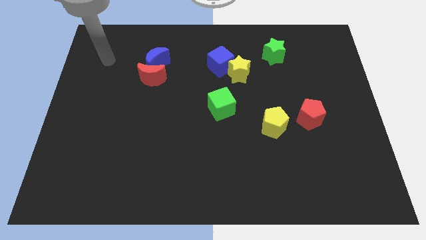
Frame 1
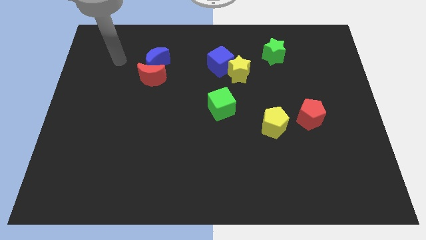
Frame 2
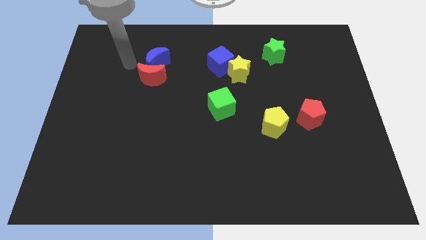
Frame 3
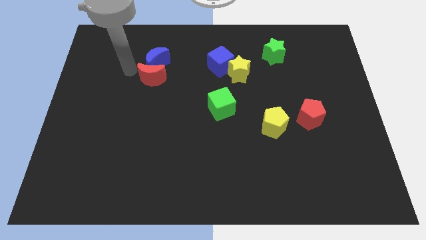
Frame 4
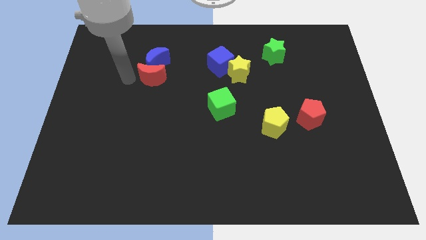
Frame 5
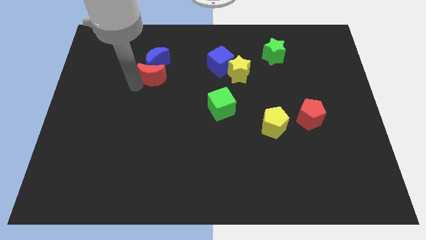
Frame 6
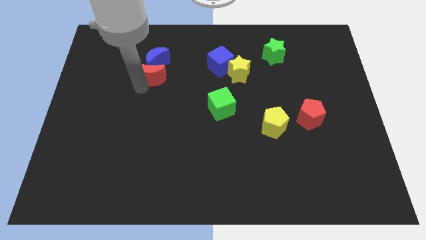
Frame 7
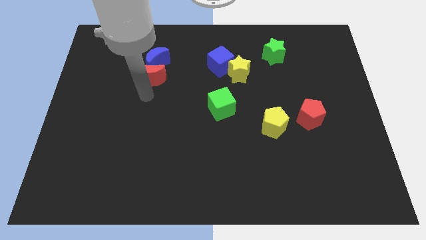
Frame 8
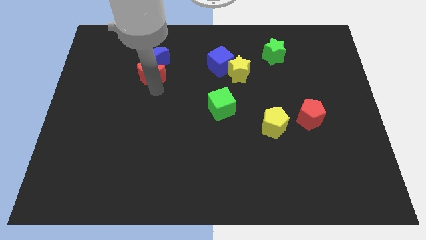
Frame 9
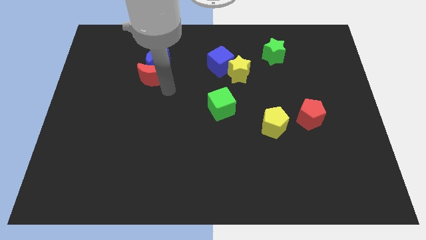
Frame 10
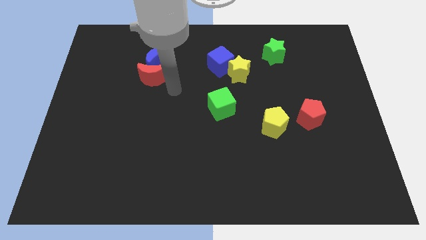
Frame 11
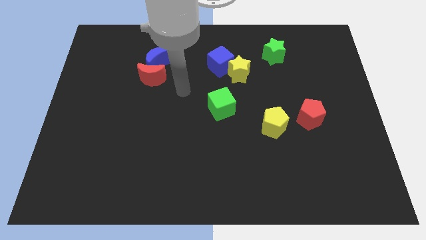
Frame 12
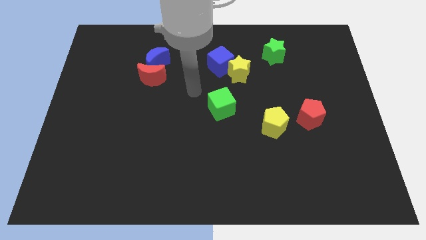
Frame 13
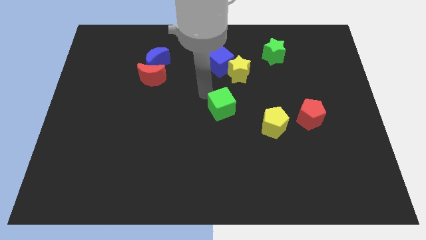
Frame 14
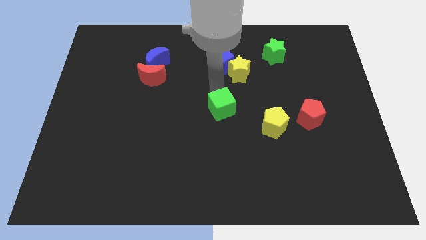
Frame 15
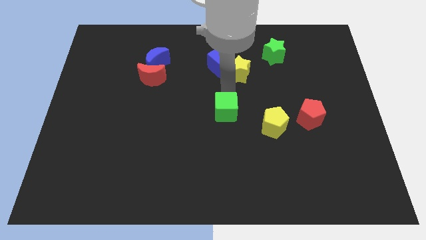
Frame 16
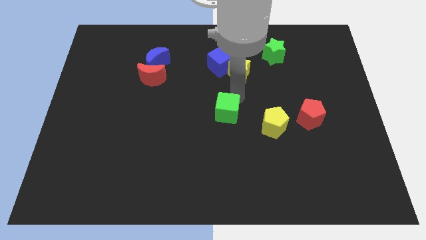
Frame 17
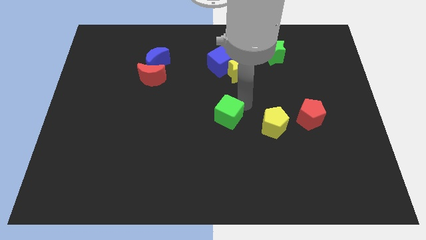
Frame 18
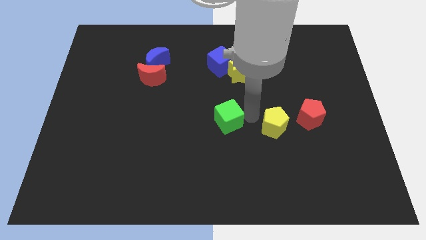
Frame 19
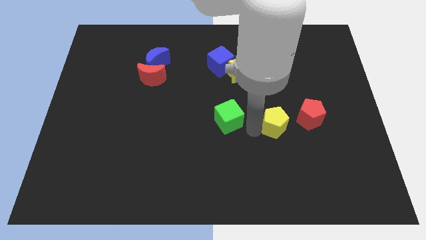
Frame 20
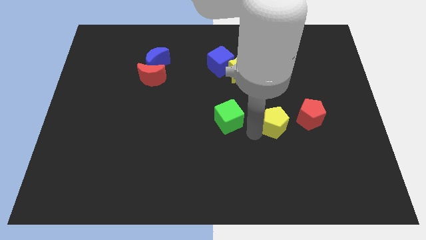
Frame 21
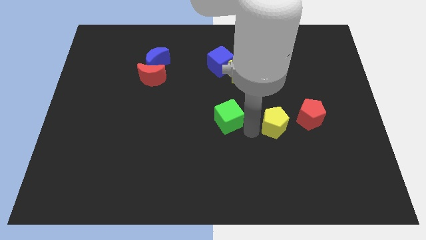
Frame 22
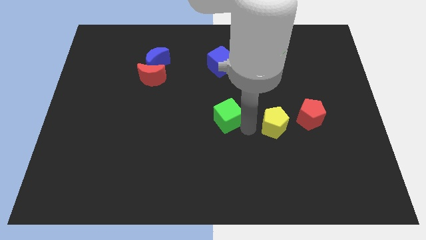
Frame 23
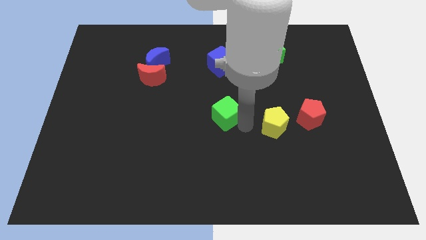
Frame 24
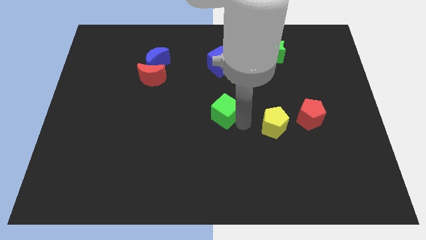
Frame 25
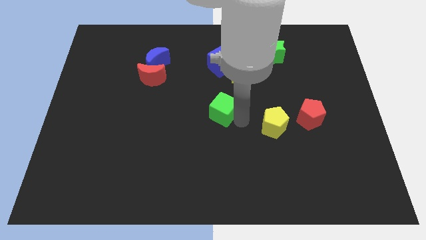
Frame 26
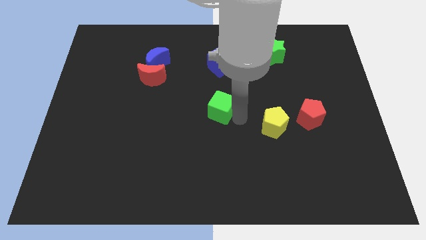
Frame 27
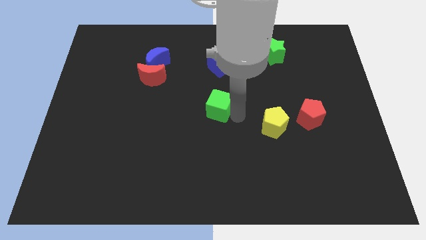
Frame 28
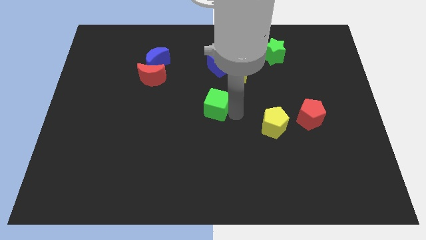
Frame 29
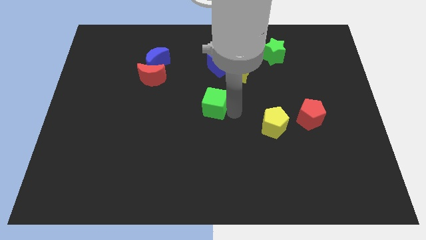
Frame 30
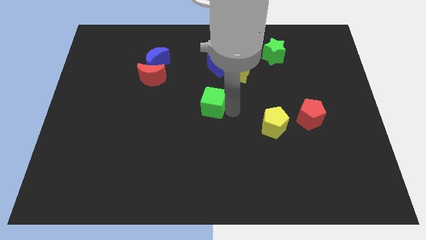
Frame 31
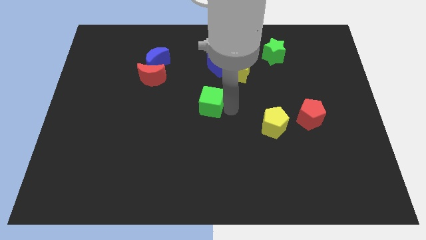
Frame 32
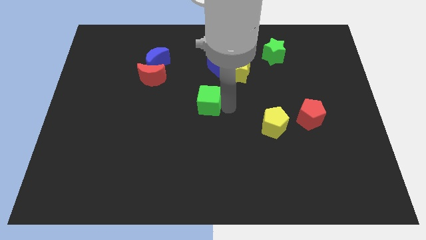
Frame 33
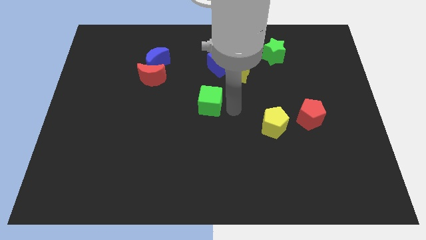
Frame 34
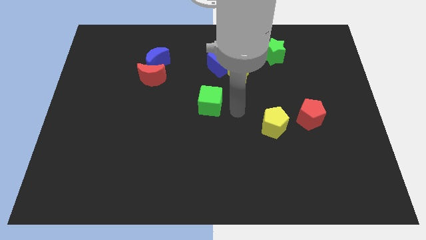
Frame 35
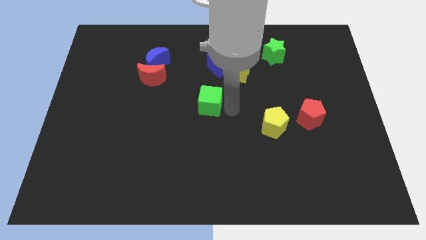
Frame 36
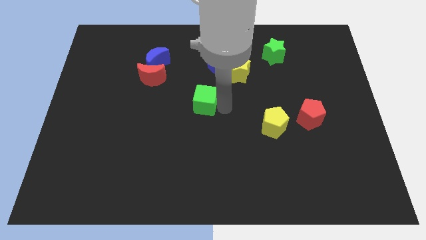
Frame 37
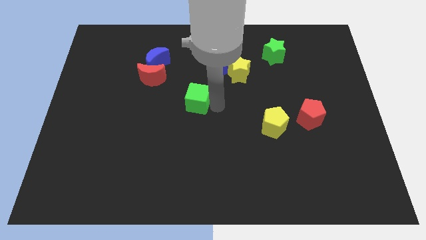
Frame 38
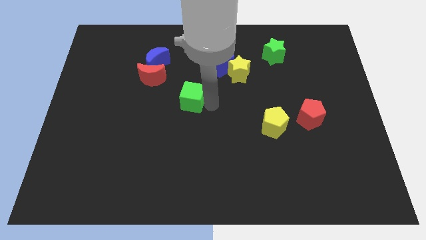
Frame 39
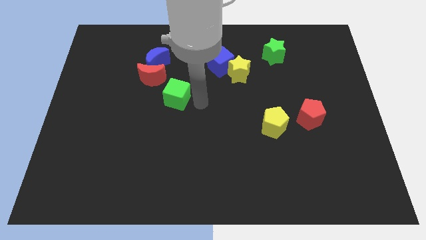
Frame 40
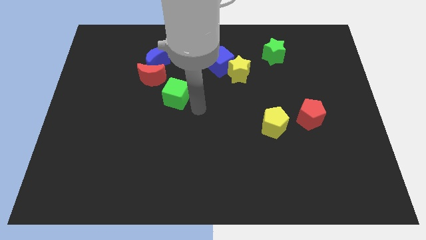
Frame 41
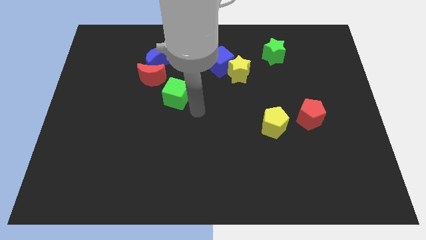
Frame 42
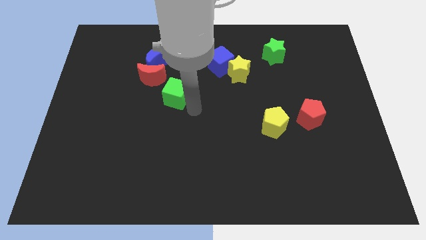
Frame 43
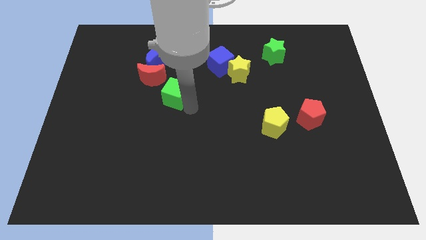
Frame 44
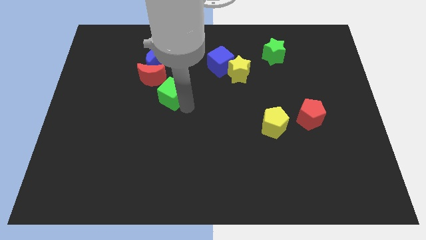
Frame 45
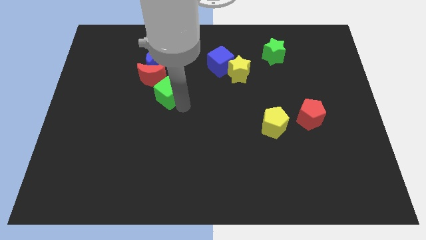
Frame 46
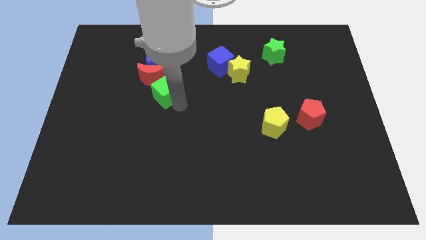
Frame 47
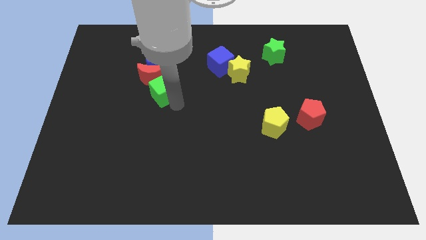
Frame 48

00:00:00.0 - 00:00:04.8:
move the green cube to the red moon

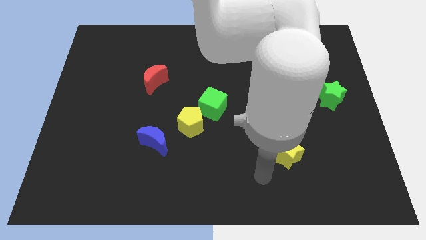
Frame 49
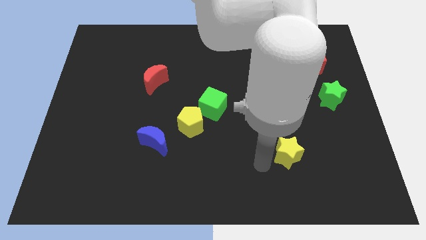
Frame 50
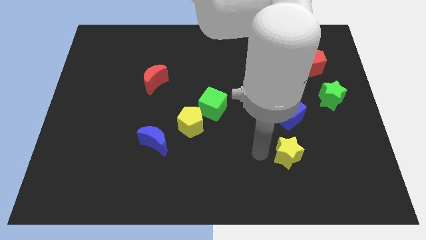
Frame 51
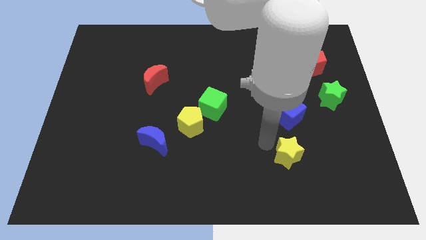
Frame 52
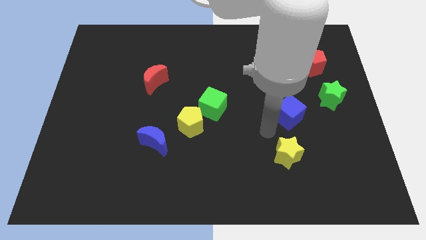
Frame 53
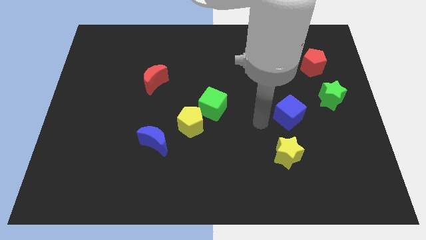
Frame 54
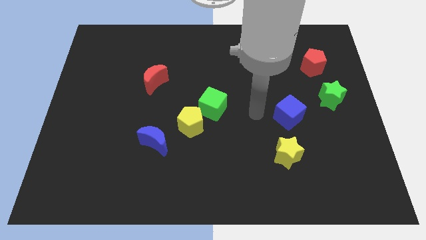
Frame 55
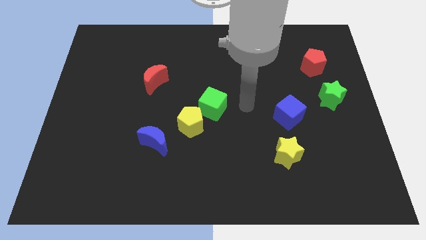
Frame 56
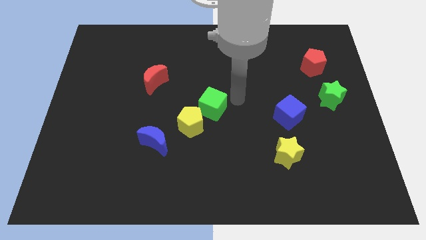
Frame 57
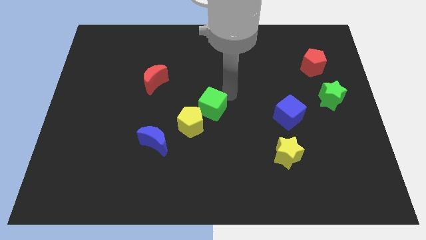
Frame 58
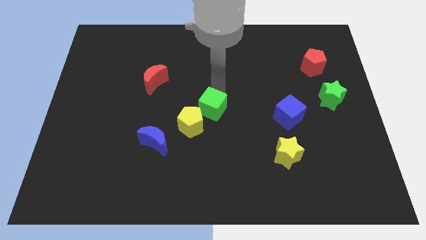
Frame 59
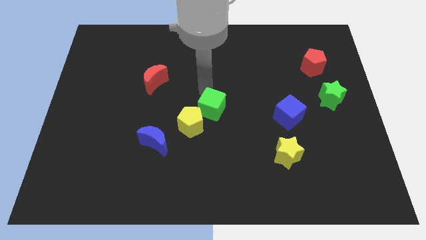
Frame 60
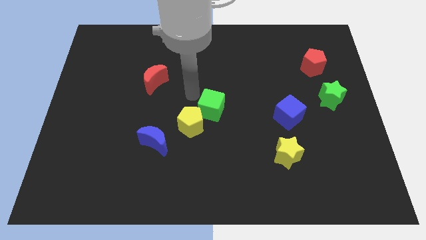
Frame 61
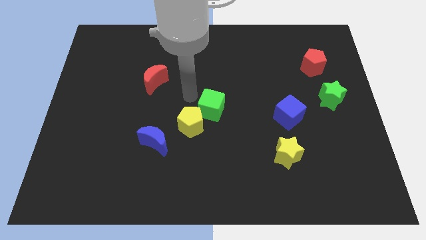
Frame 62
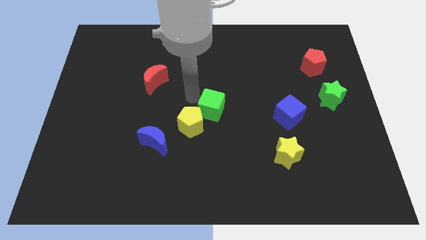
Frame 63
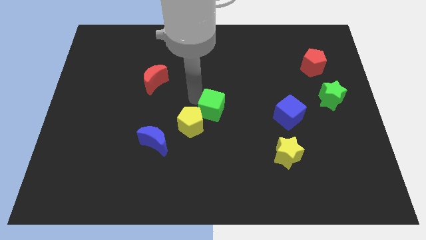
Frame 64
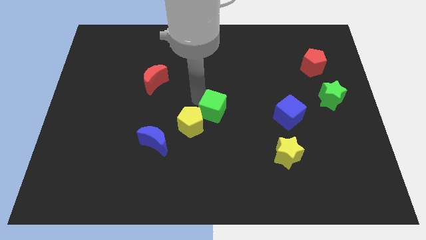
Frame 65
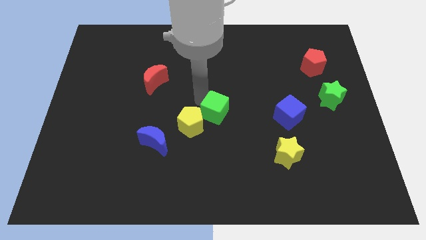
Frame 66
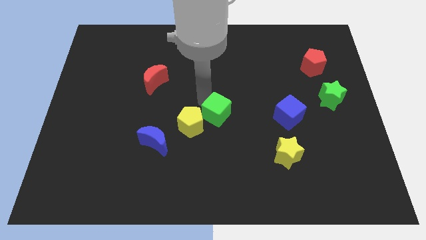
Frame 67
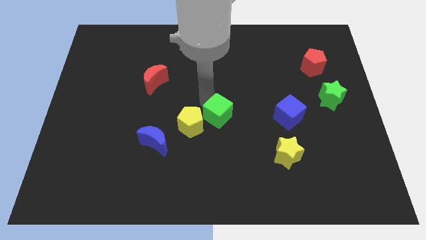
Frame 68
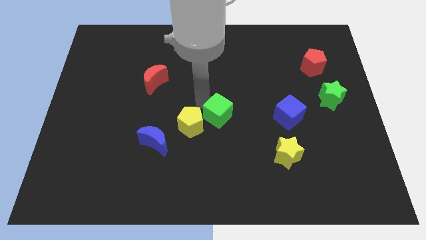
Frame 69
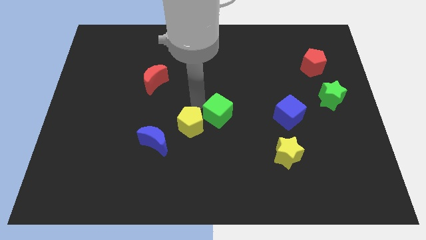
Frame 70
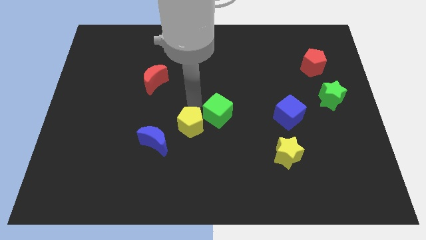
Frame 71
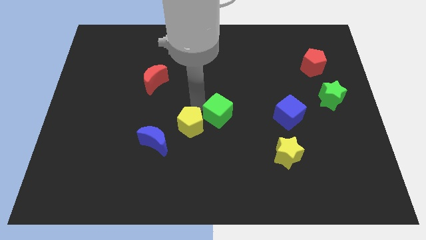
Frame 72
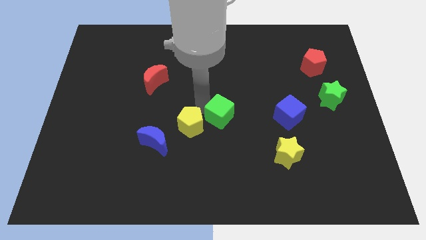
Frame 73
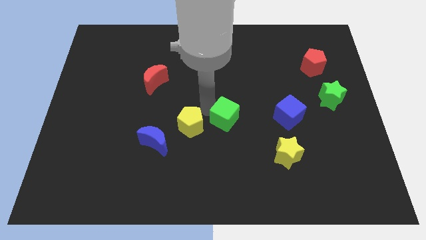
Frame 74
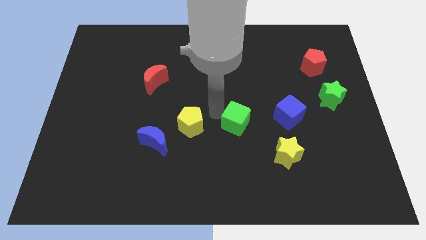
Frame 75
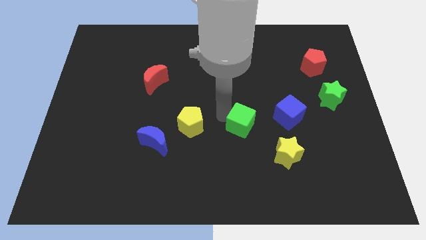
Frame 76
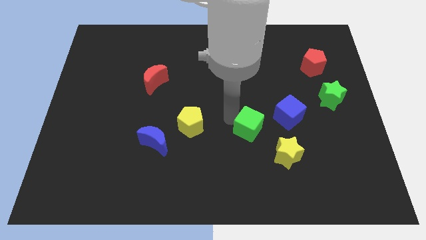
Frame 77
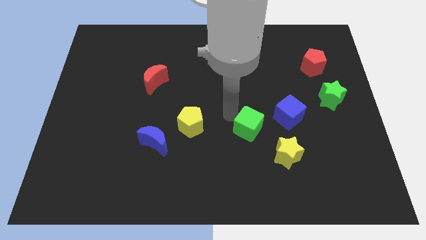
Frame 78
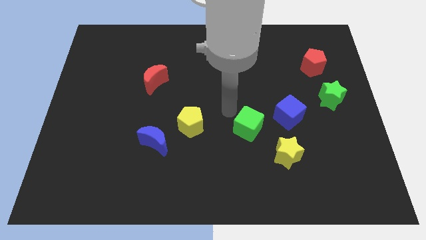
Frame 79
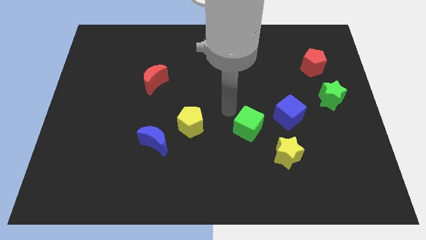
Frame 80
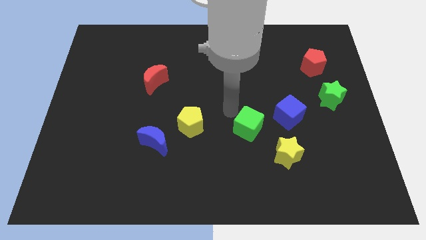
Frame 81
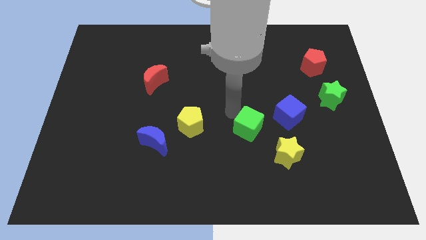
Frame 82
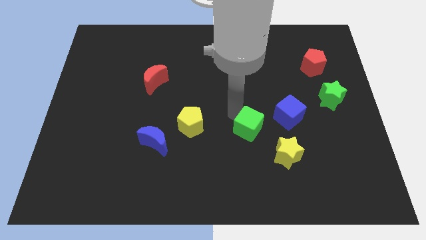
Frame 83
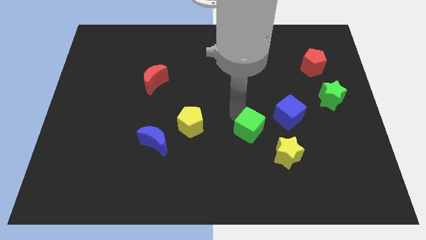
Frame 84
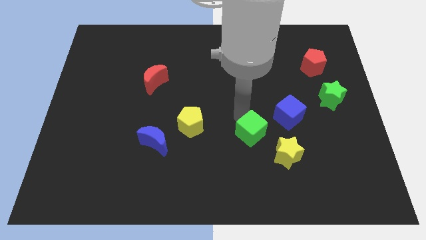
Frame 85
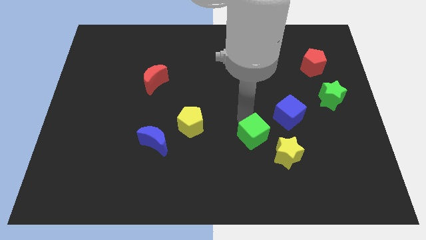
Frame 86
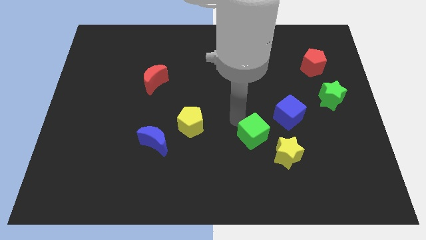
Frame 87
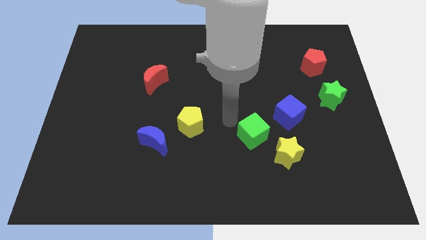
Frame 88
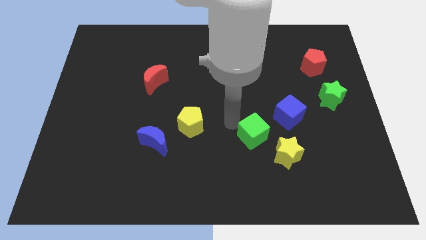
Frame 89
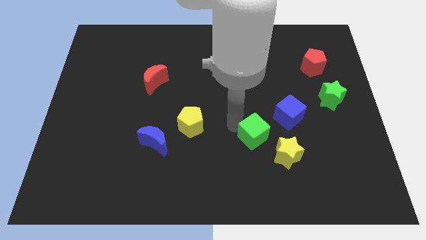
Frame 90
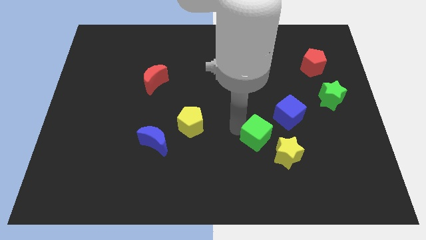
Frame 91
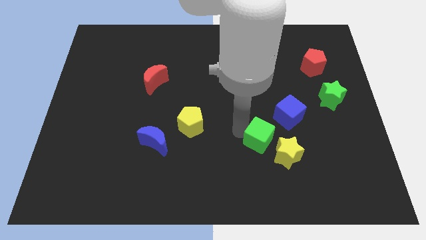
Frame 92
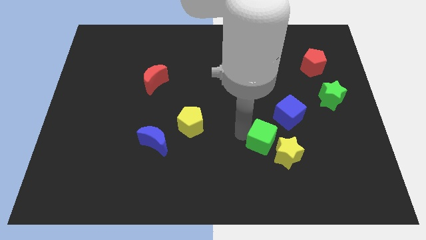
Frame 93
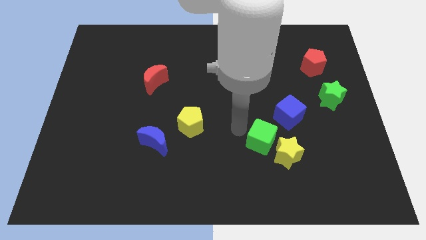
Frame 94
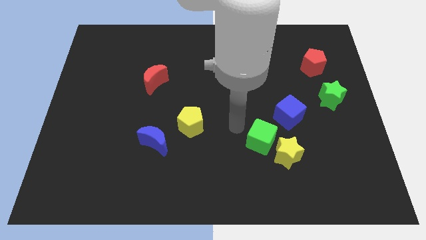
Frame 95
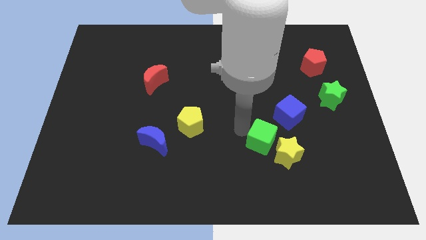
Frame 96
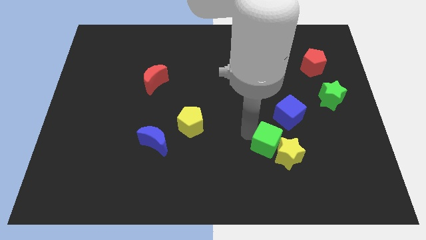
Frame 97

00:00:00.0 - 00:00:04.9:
push the green cube close to the yellow star
